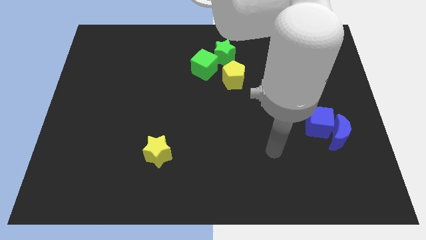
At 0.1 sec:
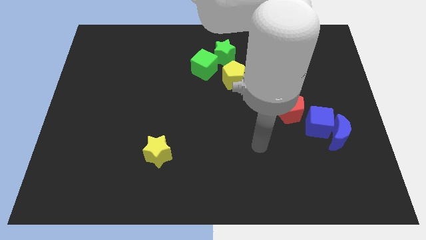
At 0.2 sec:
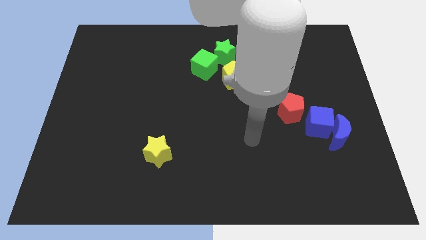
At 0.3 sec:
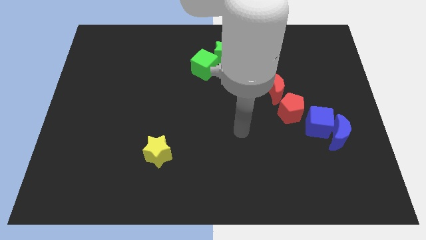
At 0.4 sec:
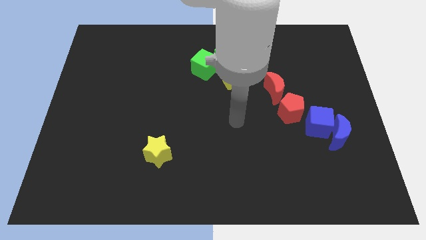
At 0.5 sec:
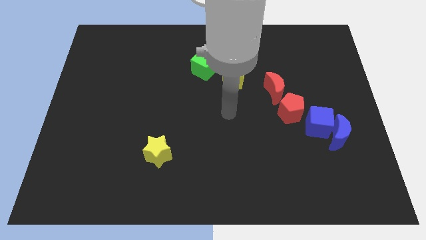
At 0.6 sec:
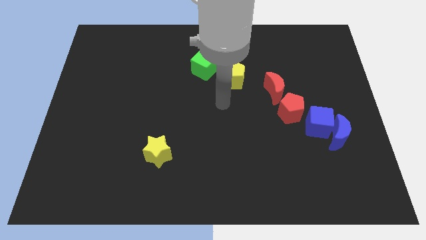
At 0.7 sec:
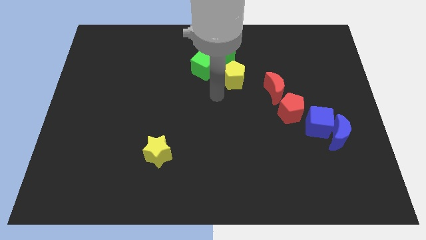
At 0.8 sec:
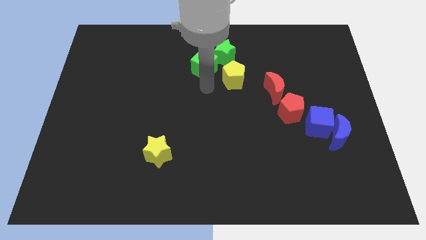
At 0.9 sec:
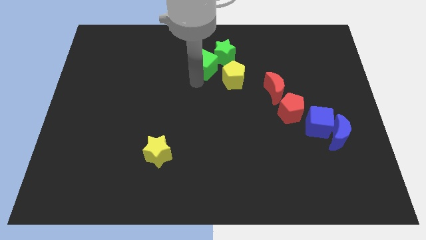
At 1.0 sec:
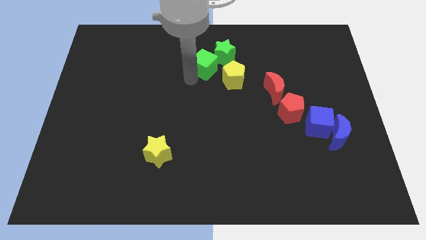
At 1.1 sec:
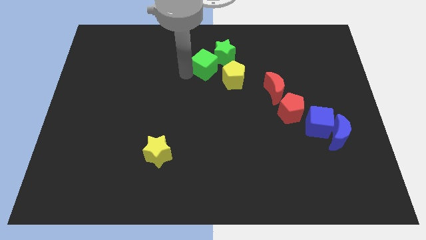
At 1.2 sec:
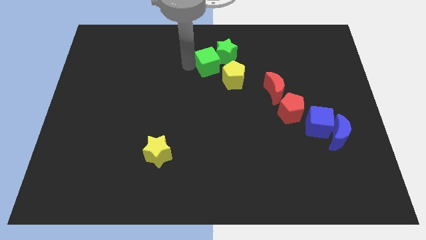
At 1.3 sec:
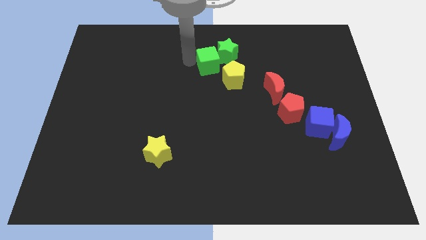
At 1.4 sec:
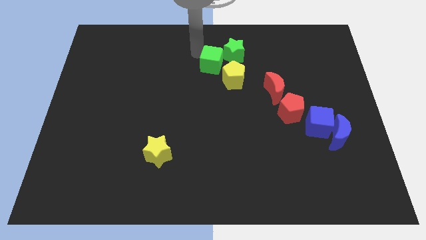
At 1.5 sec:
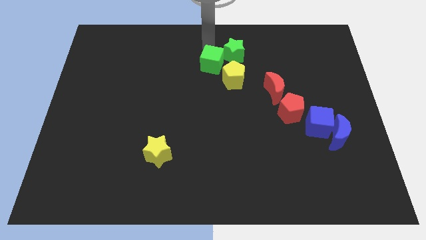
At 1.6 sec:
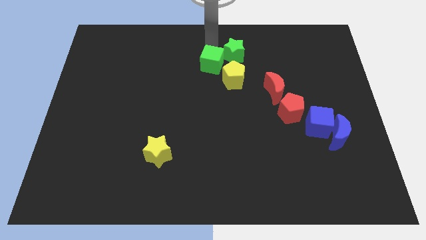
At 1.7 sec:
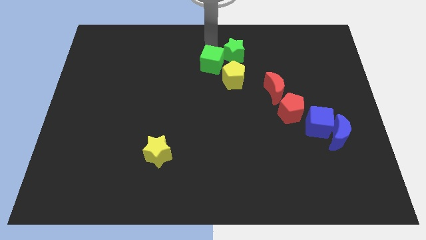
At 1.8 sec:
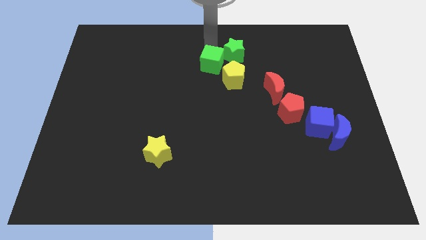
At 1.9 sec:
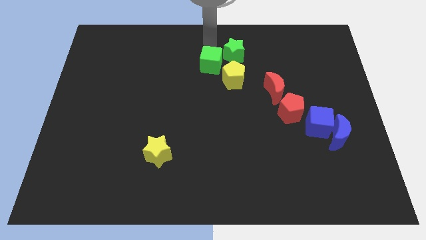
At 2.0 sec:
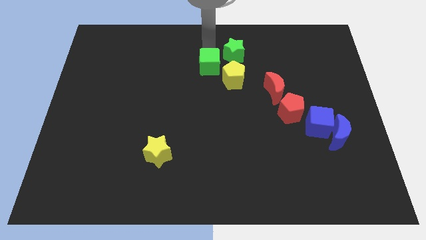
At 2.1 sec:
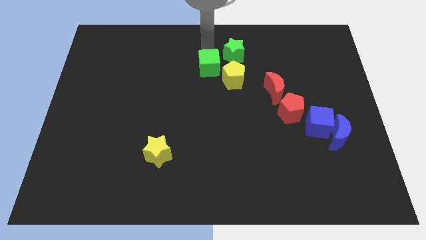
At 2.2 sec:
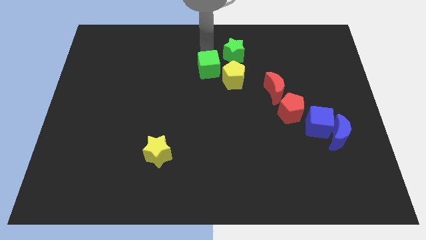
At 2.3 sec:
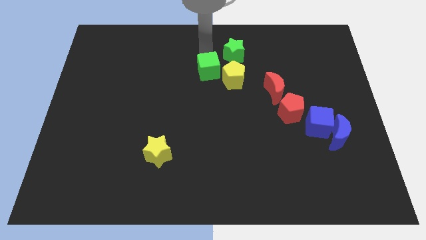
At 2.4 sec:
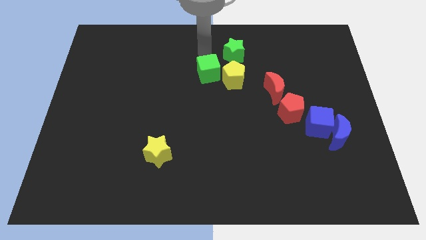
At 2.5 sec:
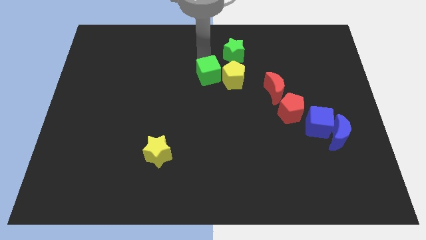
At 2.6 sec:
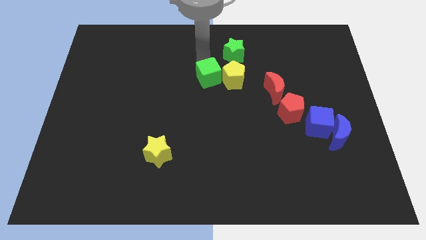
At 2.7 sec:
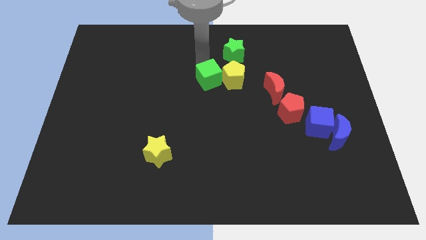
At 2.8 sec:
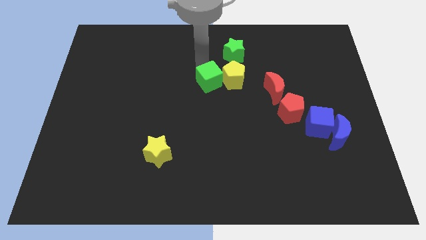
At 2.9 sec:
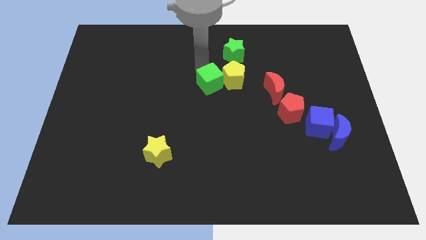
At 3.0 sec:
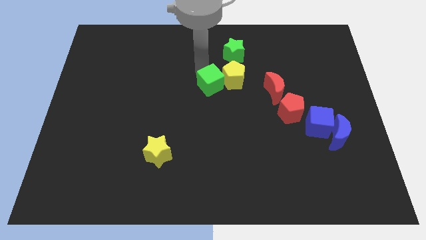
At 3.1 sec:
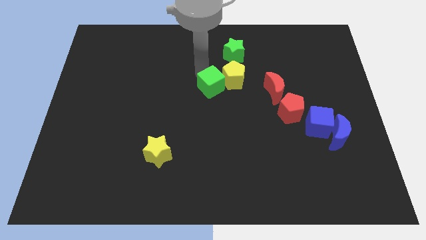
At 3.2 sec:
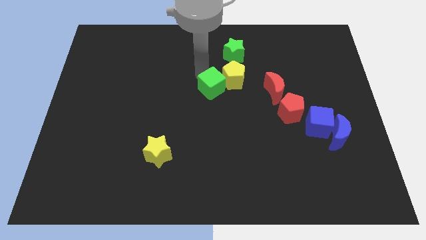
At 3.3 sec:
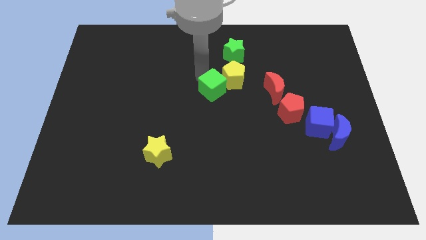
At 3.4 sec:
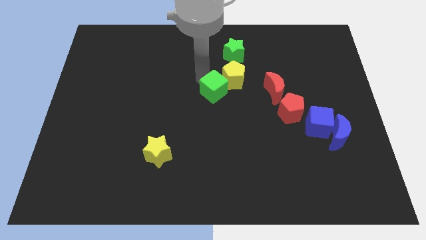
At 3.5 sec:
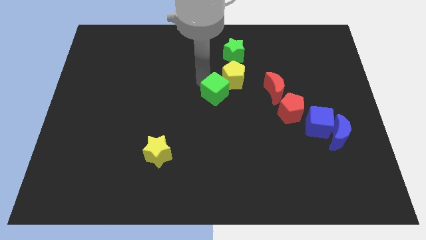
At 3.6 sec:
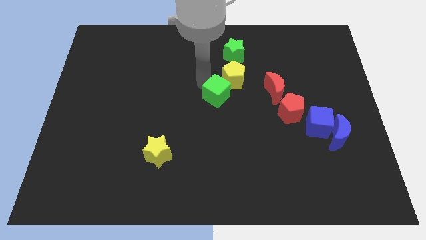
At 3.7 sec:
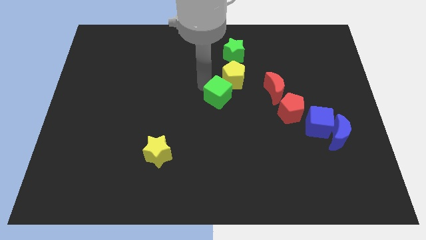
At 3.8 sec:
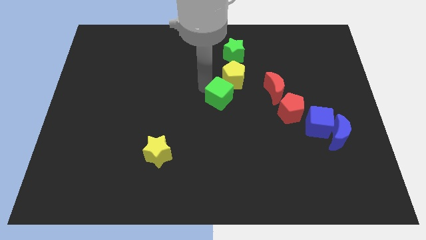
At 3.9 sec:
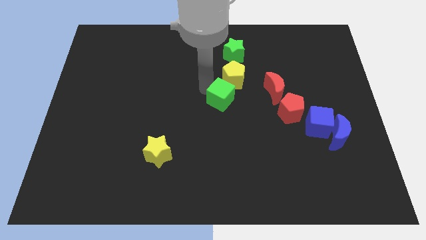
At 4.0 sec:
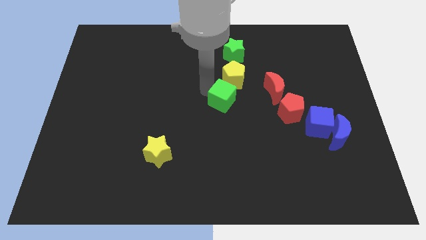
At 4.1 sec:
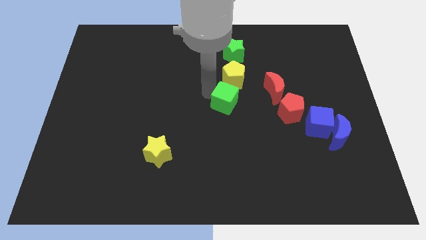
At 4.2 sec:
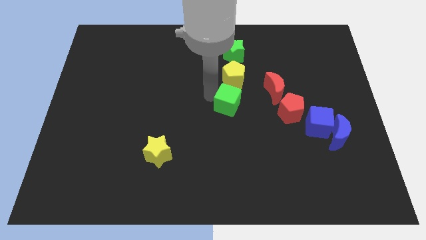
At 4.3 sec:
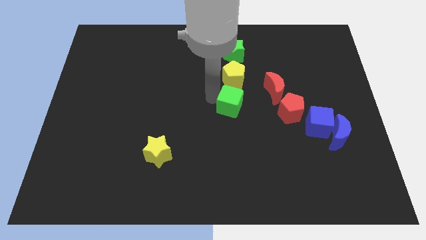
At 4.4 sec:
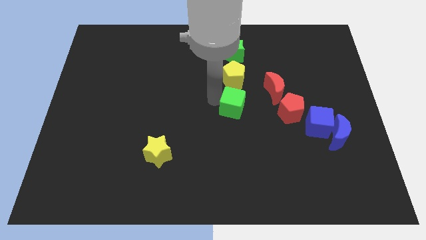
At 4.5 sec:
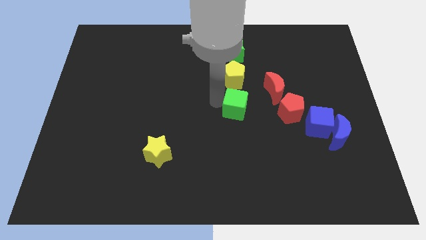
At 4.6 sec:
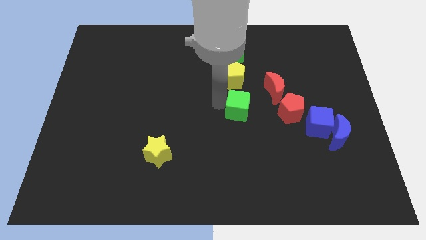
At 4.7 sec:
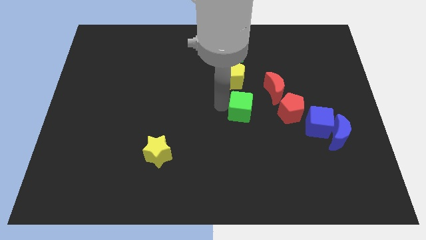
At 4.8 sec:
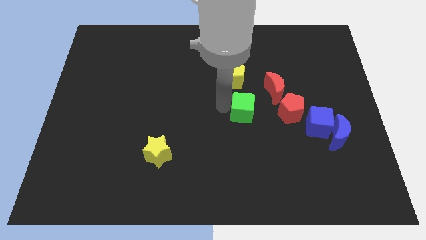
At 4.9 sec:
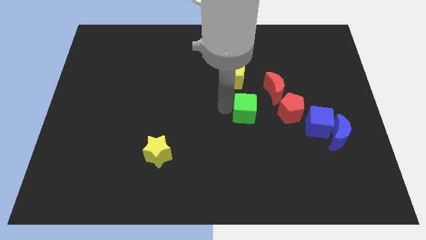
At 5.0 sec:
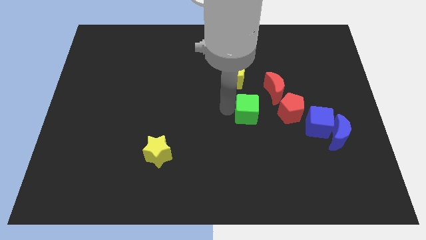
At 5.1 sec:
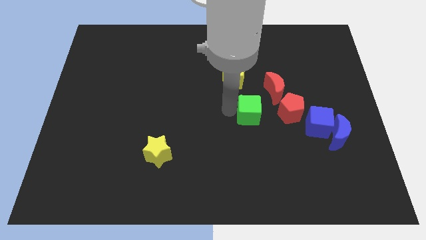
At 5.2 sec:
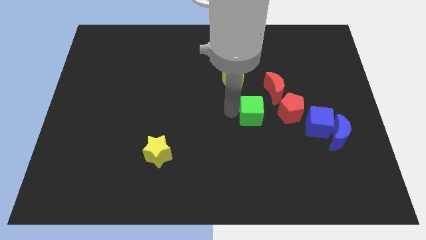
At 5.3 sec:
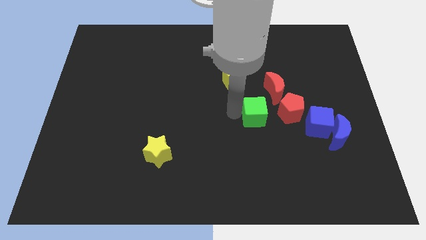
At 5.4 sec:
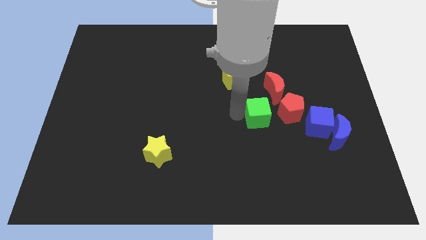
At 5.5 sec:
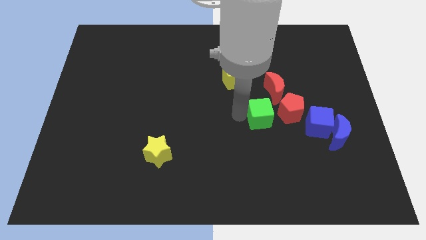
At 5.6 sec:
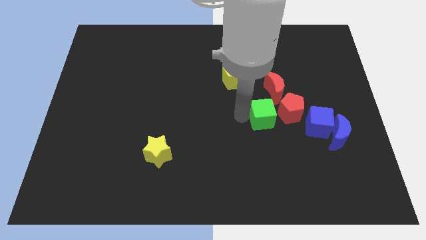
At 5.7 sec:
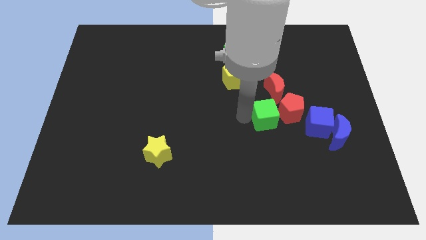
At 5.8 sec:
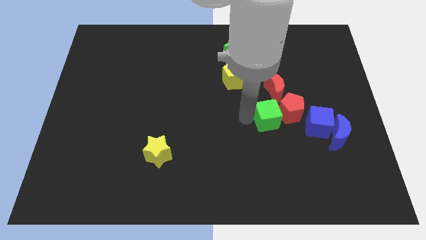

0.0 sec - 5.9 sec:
slide the green cube towards the red pentagon

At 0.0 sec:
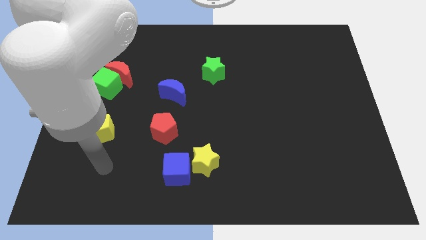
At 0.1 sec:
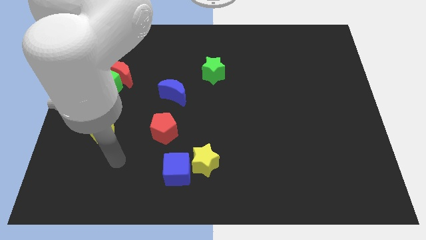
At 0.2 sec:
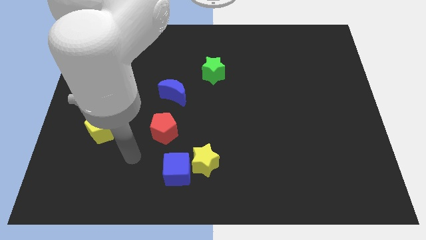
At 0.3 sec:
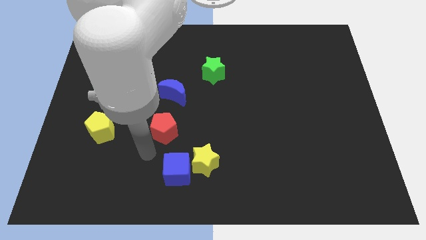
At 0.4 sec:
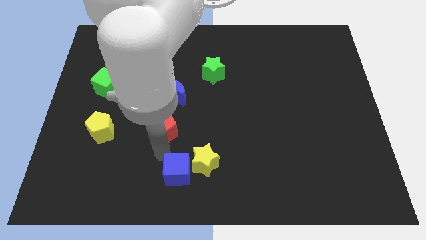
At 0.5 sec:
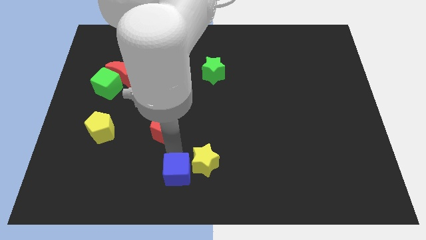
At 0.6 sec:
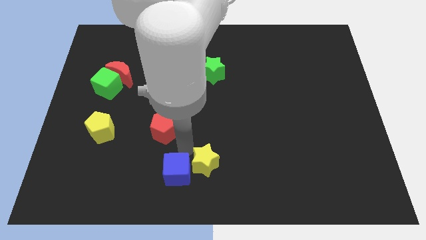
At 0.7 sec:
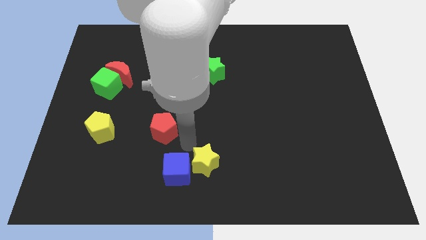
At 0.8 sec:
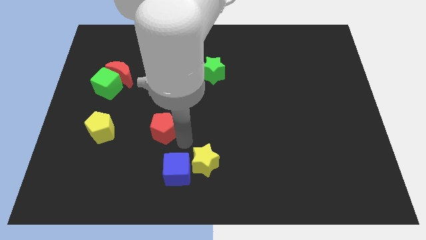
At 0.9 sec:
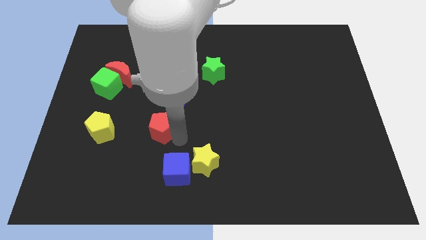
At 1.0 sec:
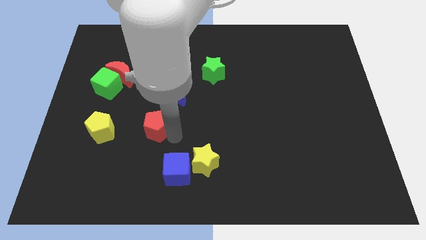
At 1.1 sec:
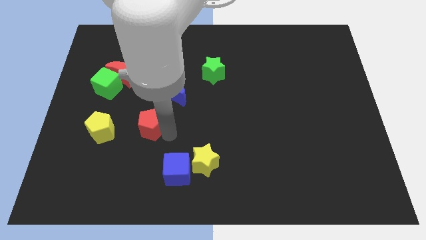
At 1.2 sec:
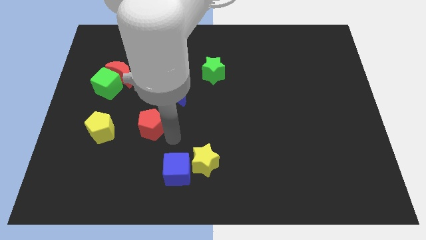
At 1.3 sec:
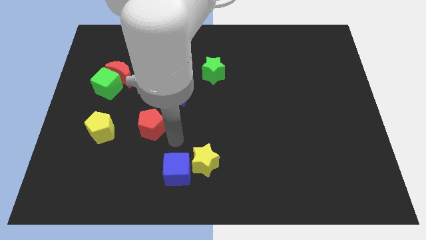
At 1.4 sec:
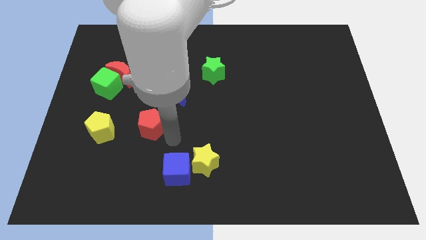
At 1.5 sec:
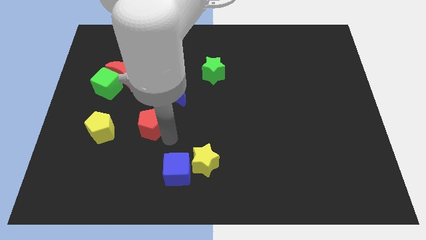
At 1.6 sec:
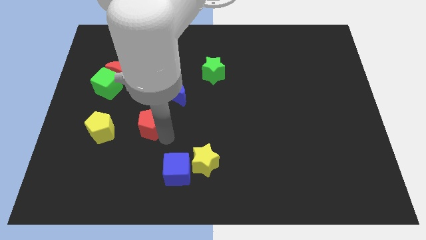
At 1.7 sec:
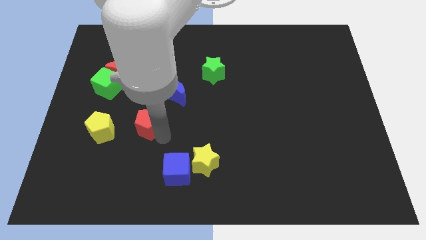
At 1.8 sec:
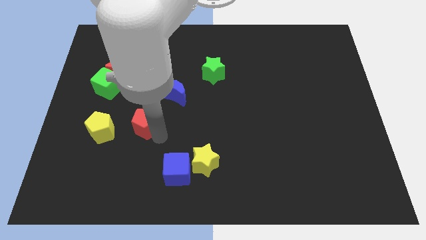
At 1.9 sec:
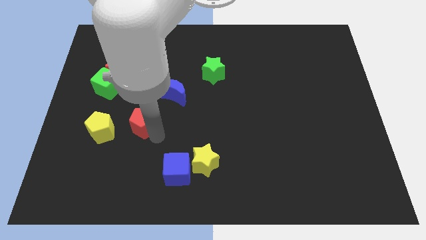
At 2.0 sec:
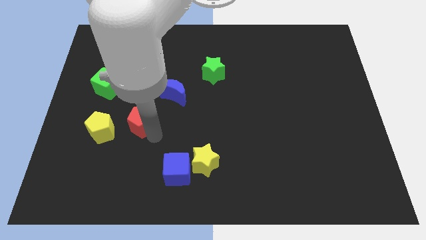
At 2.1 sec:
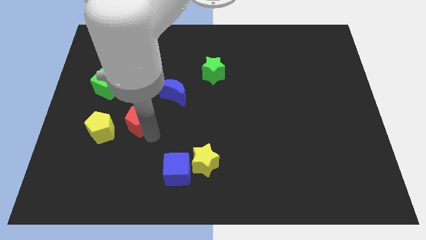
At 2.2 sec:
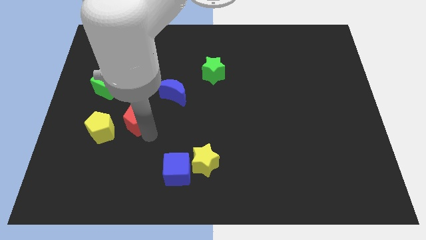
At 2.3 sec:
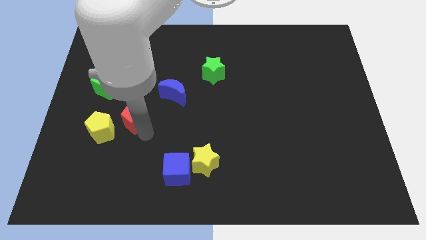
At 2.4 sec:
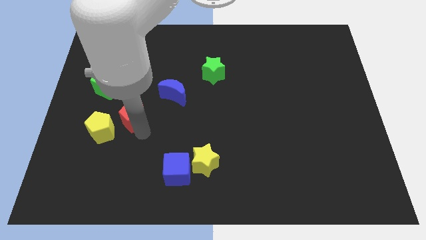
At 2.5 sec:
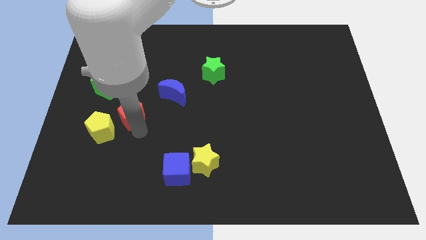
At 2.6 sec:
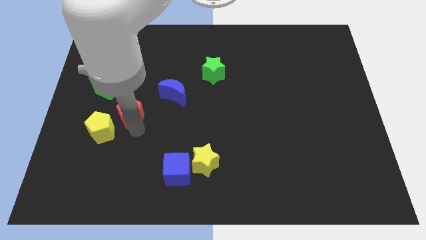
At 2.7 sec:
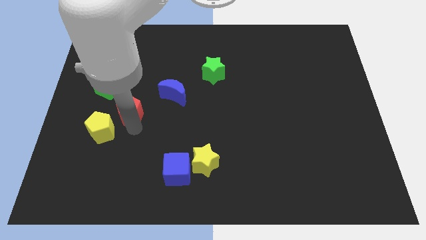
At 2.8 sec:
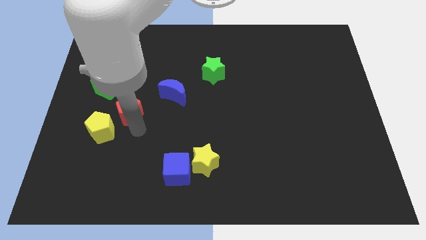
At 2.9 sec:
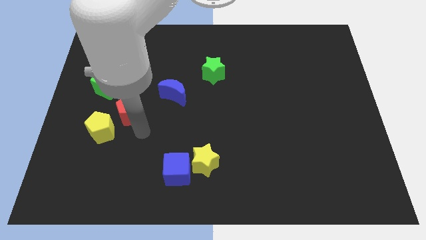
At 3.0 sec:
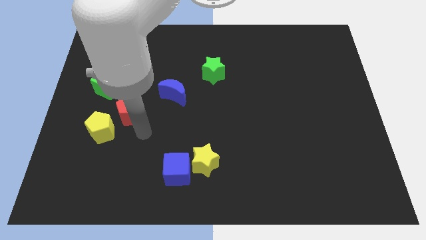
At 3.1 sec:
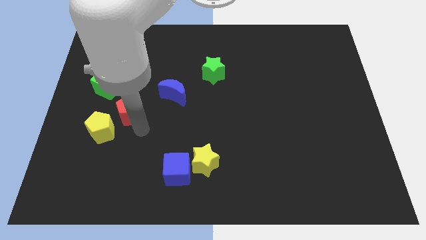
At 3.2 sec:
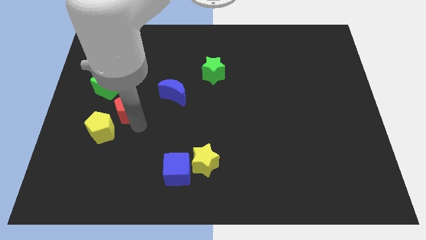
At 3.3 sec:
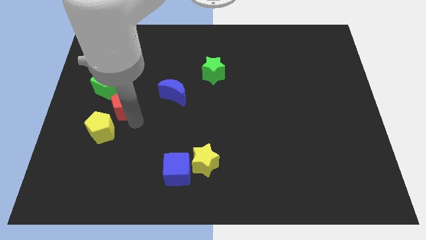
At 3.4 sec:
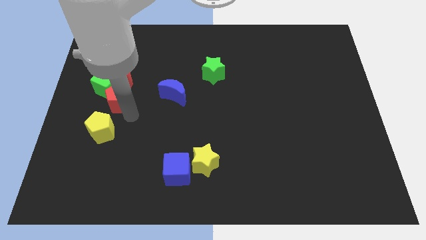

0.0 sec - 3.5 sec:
move the red pentagon to the green cube
